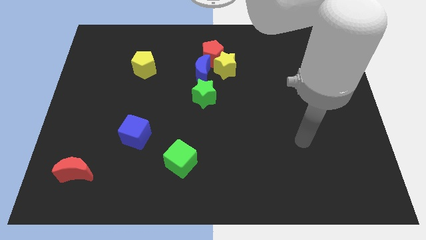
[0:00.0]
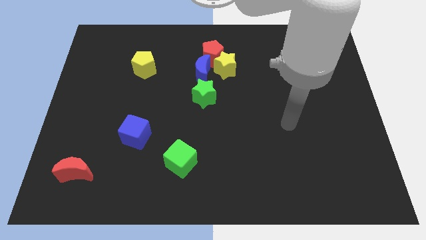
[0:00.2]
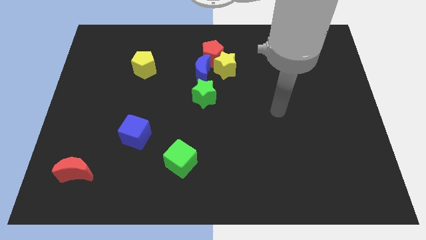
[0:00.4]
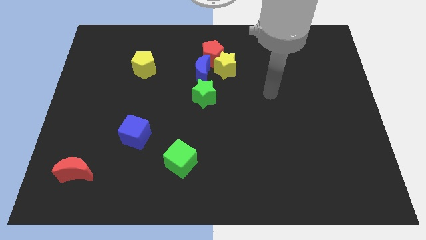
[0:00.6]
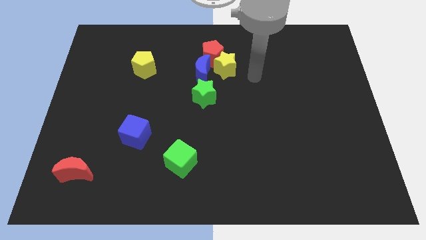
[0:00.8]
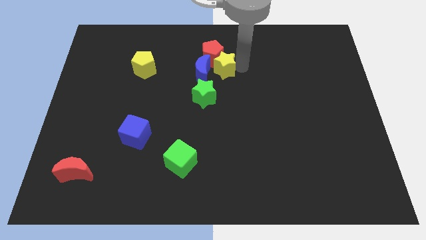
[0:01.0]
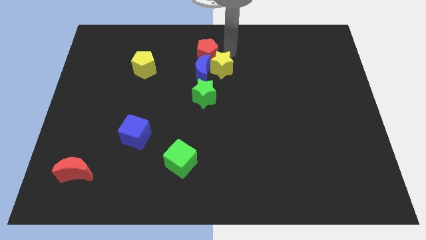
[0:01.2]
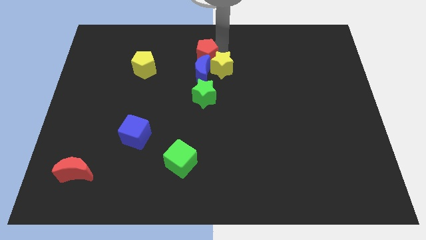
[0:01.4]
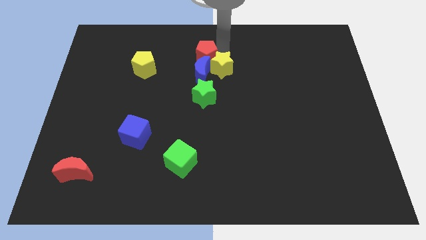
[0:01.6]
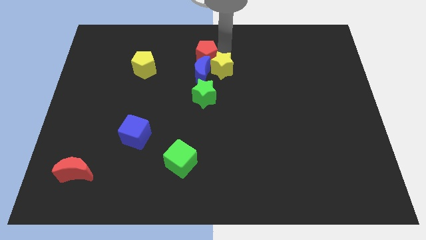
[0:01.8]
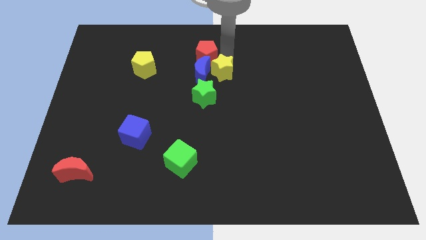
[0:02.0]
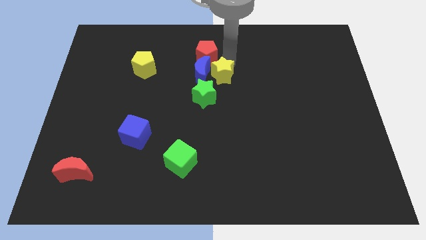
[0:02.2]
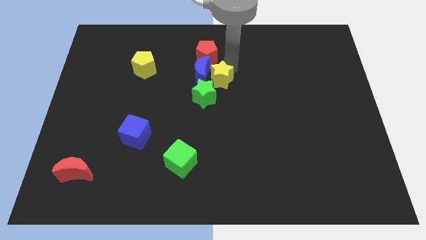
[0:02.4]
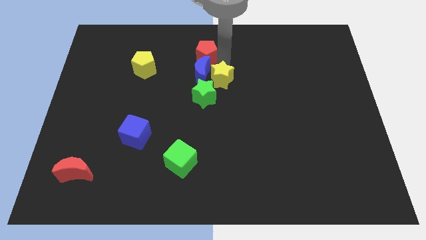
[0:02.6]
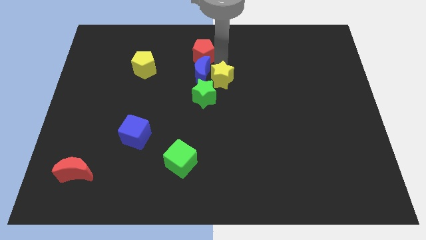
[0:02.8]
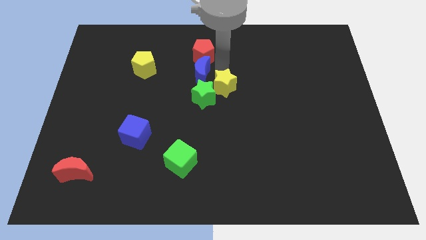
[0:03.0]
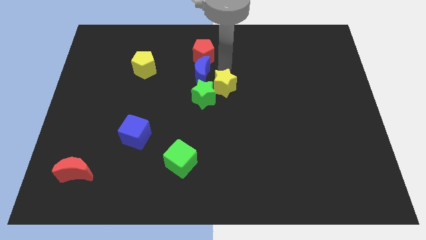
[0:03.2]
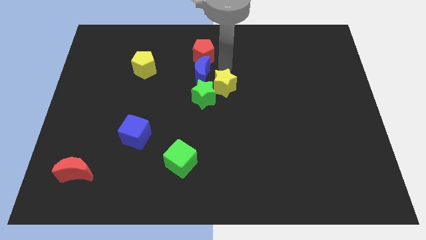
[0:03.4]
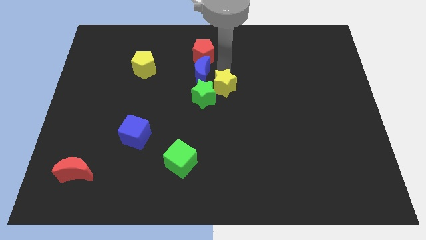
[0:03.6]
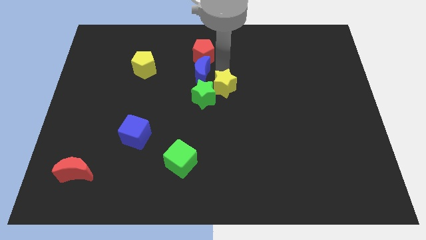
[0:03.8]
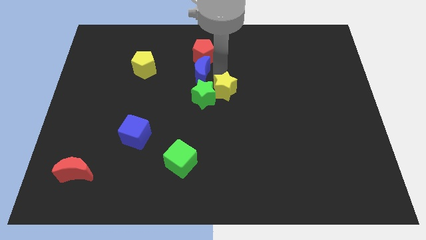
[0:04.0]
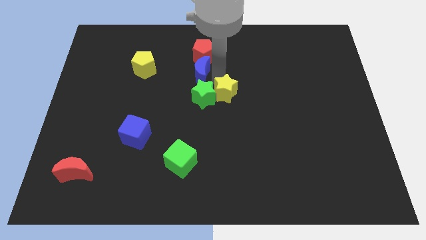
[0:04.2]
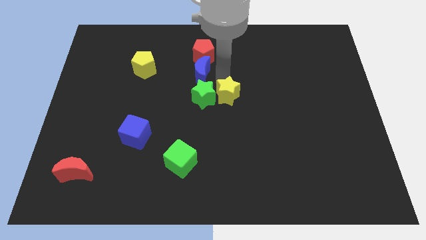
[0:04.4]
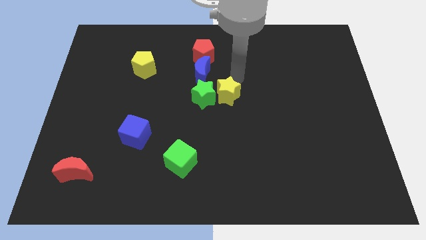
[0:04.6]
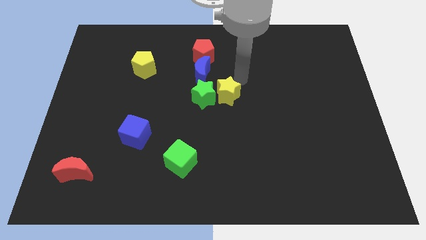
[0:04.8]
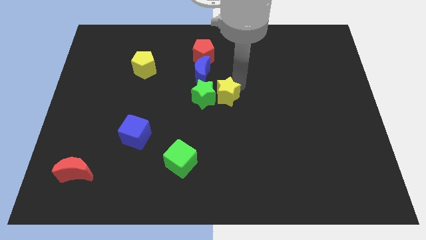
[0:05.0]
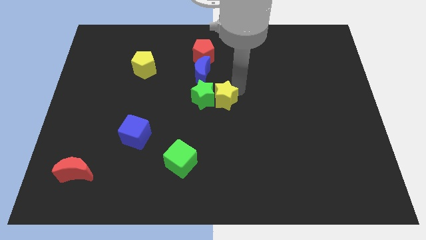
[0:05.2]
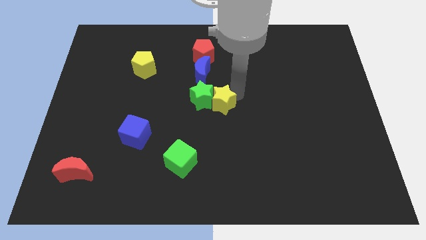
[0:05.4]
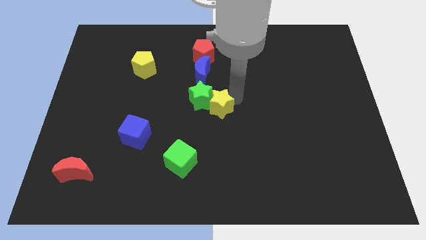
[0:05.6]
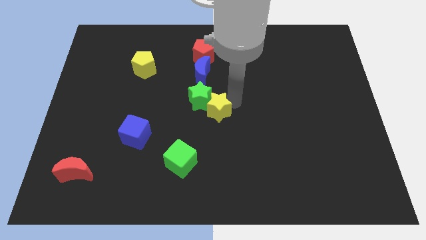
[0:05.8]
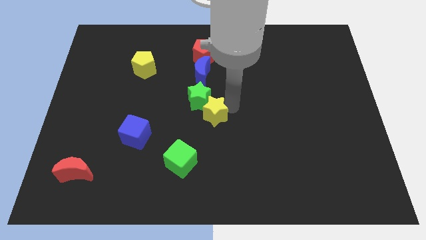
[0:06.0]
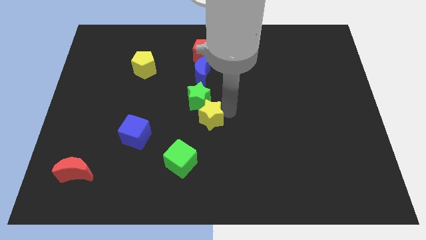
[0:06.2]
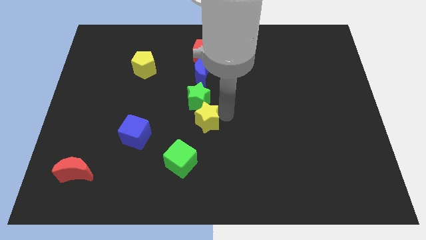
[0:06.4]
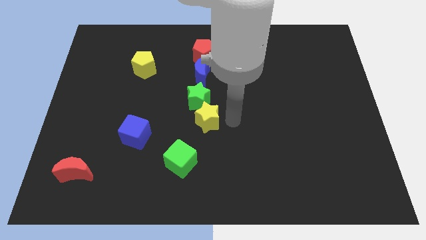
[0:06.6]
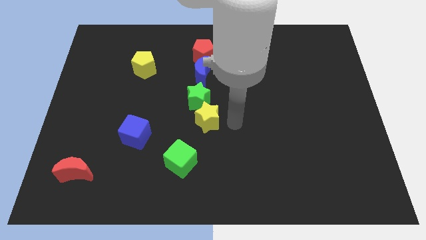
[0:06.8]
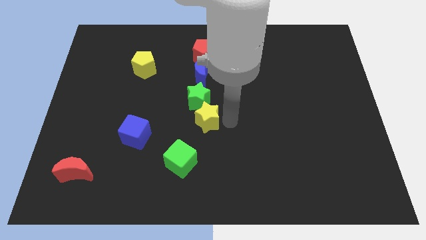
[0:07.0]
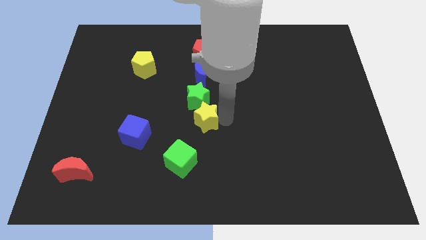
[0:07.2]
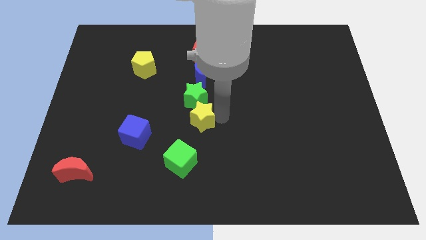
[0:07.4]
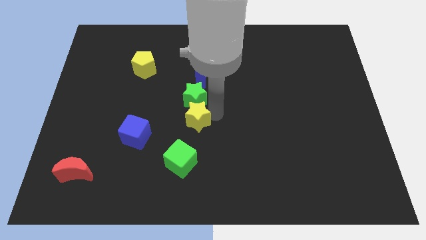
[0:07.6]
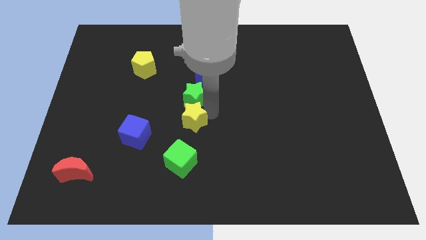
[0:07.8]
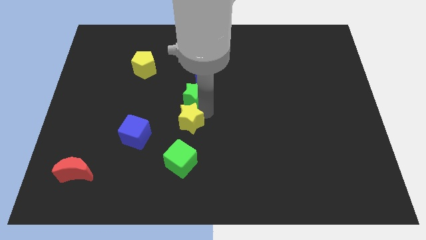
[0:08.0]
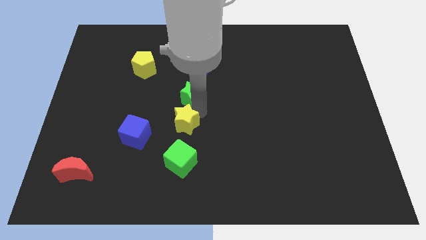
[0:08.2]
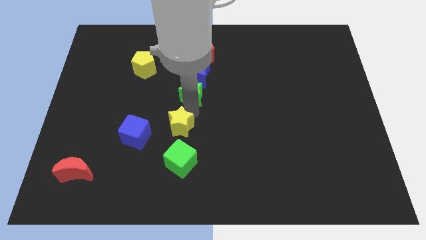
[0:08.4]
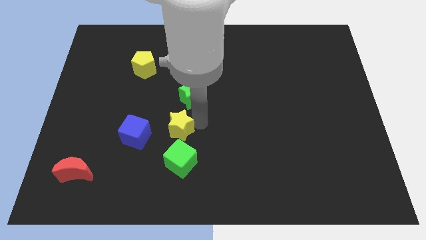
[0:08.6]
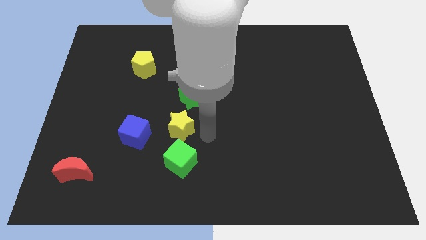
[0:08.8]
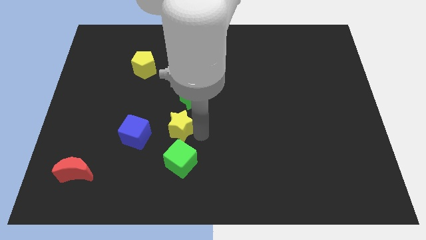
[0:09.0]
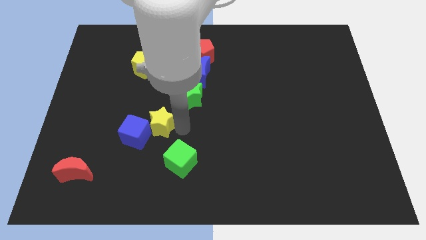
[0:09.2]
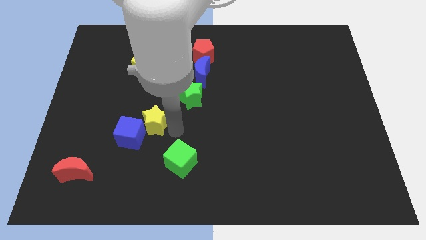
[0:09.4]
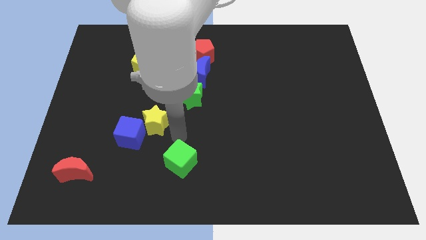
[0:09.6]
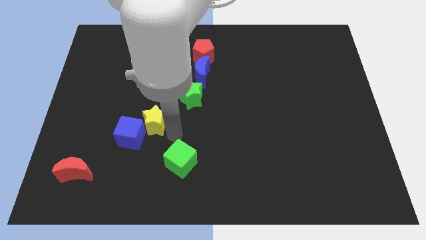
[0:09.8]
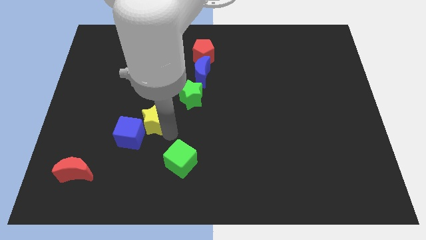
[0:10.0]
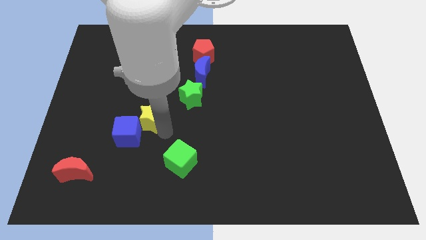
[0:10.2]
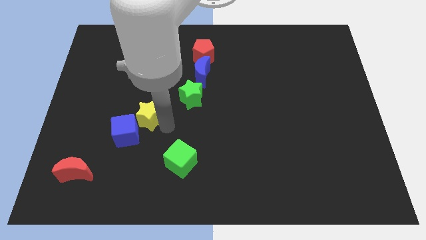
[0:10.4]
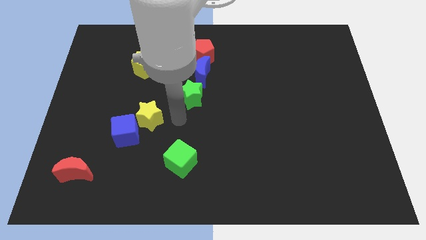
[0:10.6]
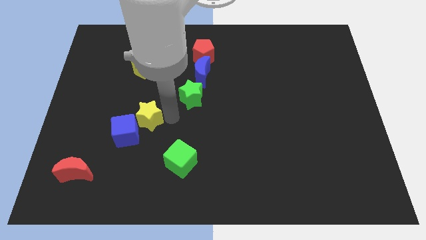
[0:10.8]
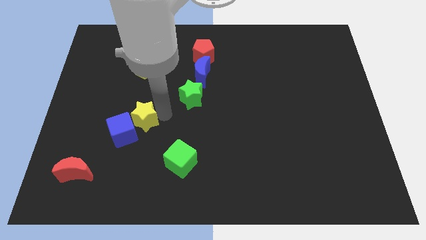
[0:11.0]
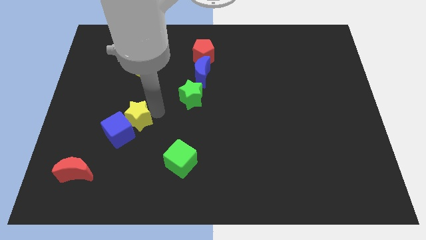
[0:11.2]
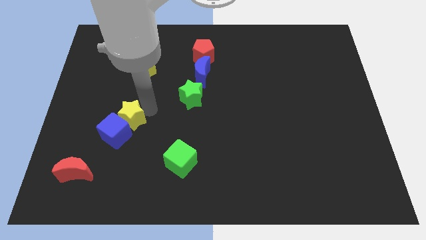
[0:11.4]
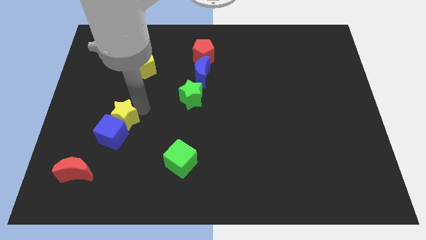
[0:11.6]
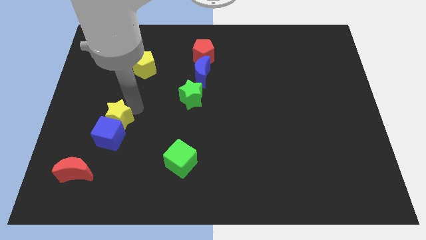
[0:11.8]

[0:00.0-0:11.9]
put the yellow star to the top left side of the blue cube

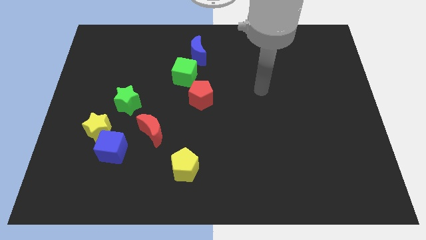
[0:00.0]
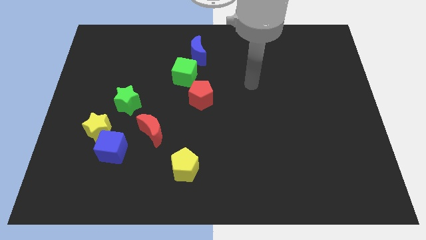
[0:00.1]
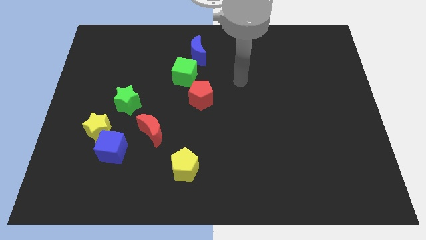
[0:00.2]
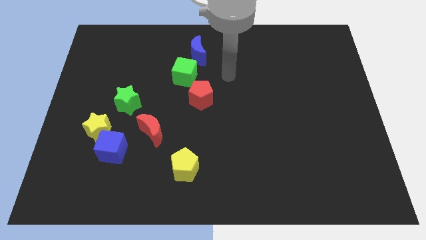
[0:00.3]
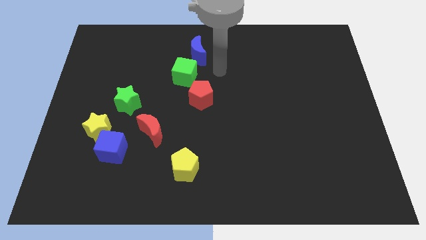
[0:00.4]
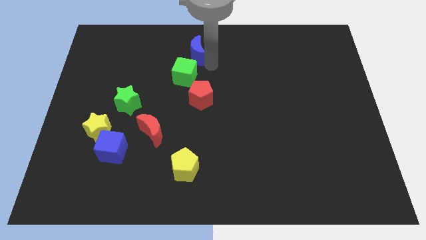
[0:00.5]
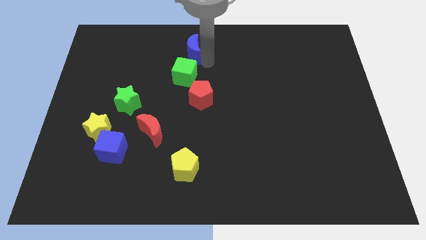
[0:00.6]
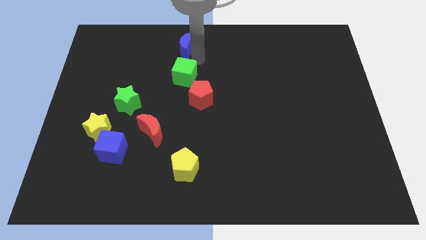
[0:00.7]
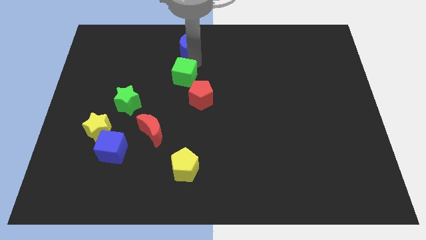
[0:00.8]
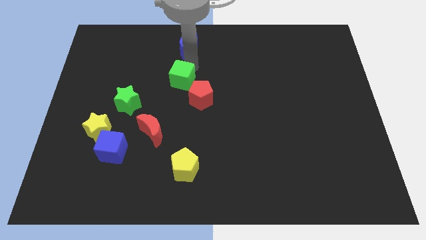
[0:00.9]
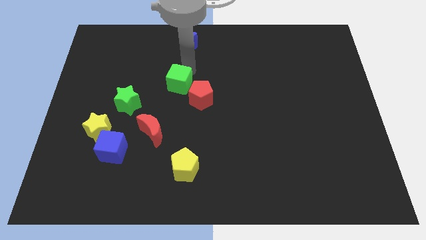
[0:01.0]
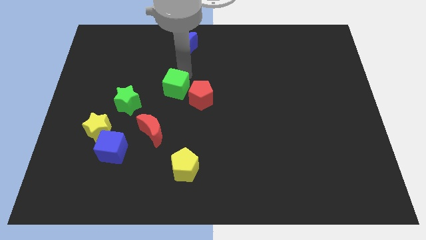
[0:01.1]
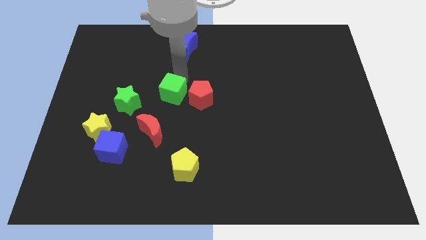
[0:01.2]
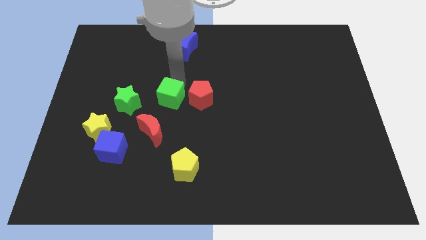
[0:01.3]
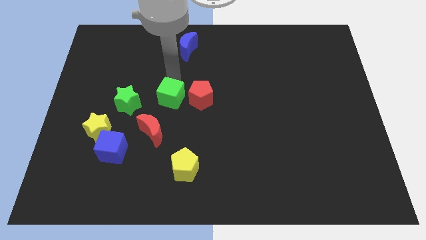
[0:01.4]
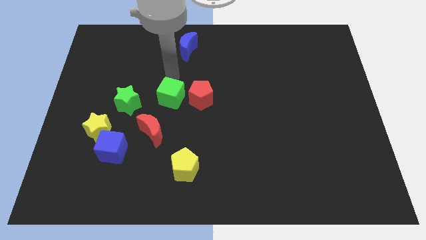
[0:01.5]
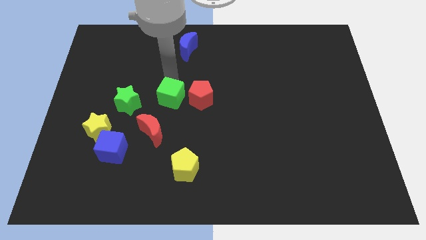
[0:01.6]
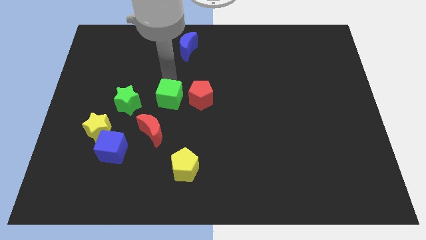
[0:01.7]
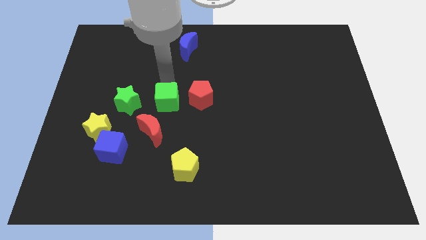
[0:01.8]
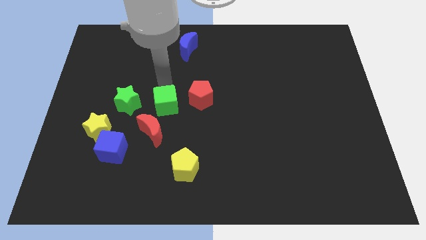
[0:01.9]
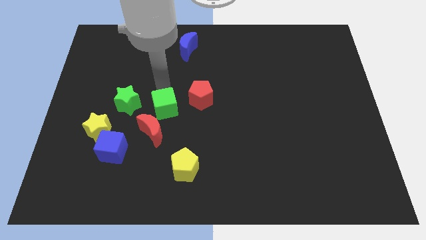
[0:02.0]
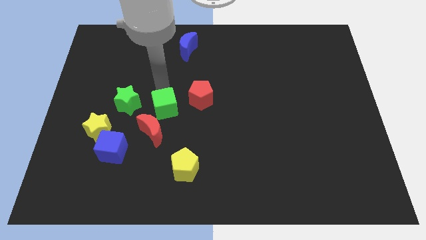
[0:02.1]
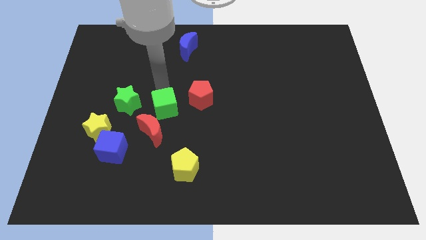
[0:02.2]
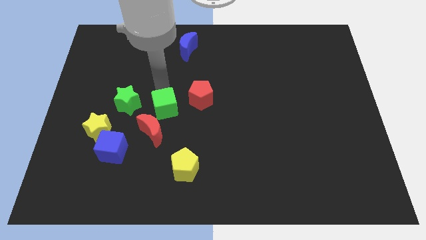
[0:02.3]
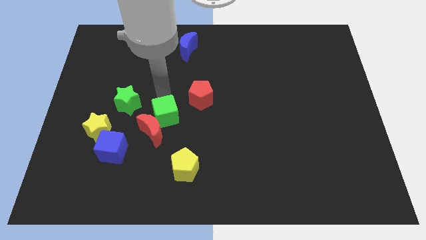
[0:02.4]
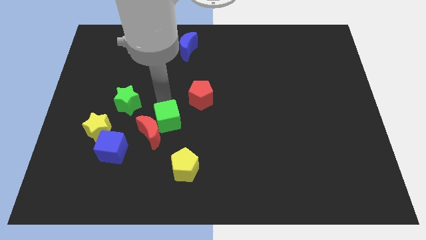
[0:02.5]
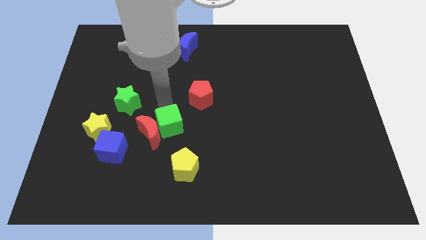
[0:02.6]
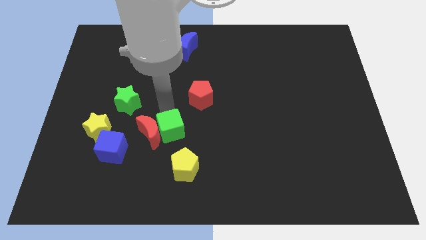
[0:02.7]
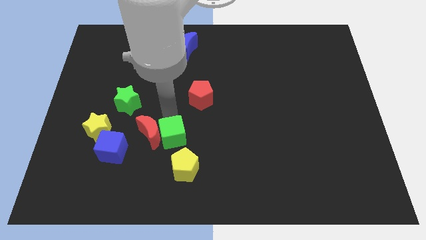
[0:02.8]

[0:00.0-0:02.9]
move the green cube right of the blue cube
